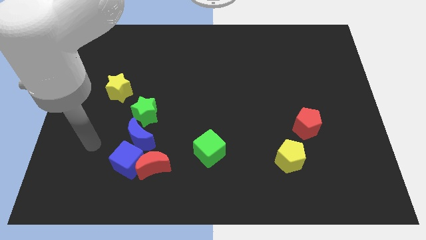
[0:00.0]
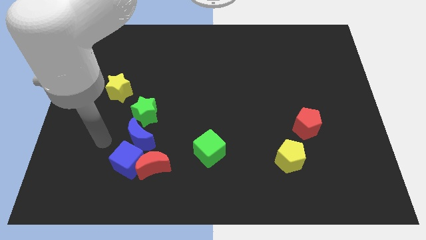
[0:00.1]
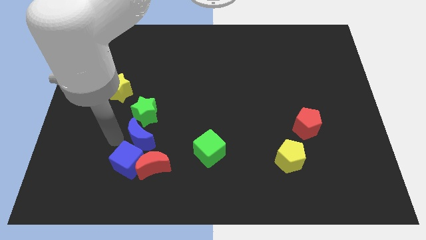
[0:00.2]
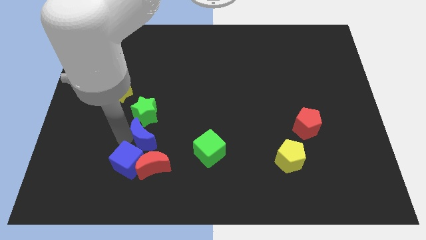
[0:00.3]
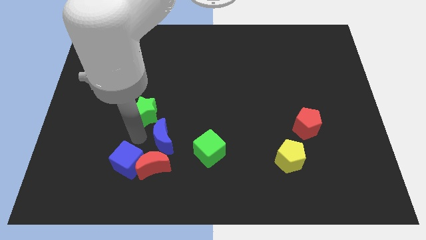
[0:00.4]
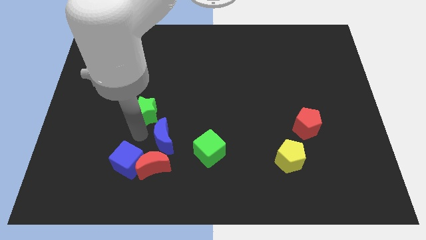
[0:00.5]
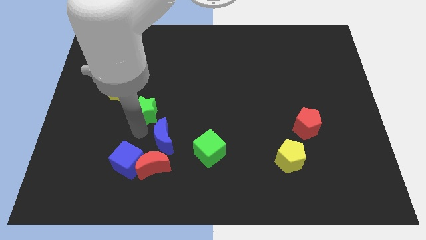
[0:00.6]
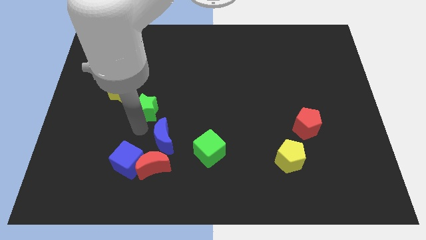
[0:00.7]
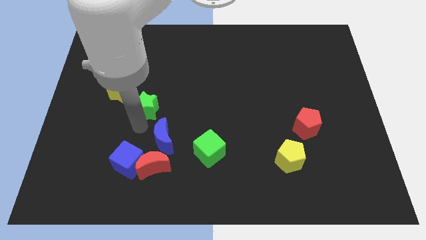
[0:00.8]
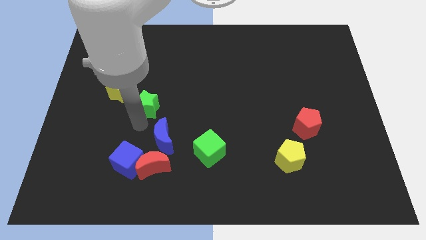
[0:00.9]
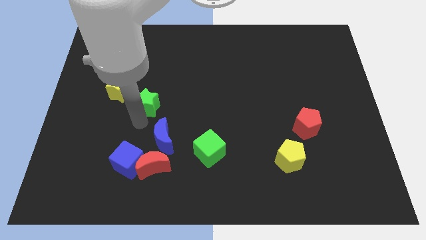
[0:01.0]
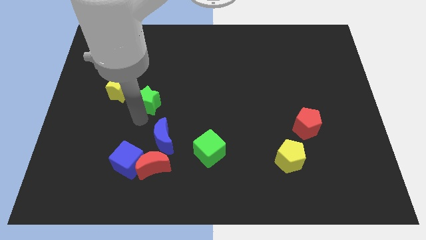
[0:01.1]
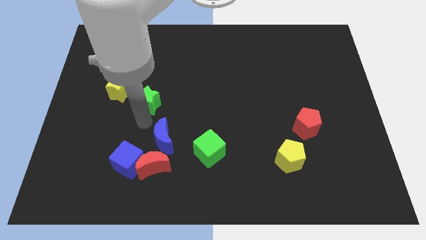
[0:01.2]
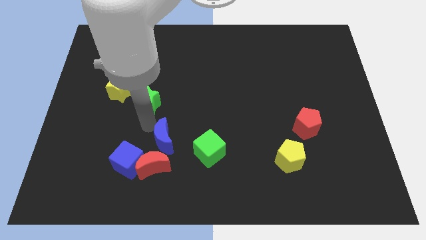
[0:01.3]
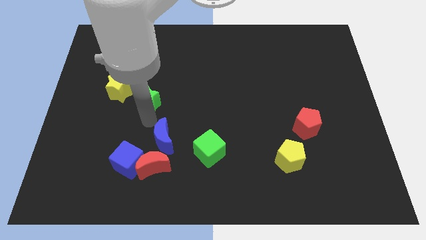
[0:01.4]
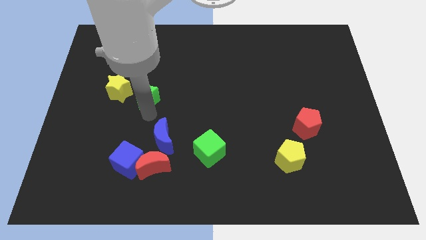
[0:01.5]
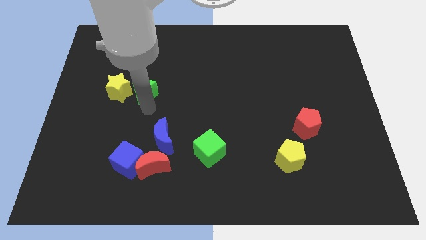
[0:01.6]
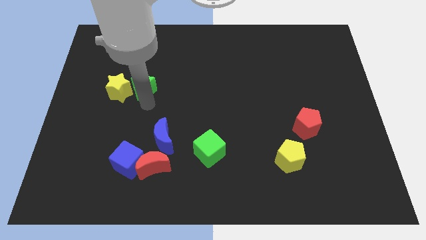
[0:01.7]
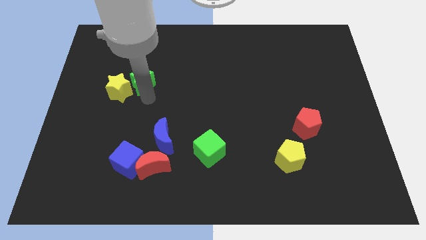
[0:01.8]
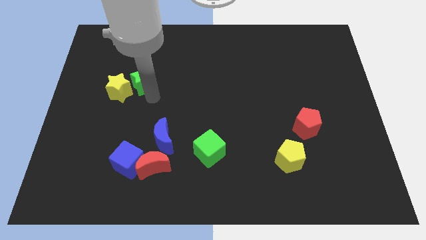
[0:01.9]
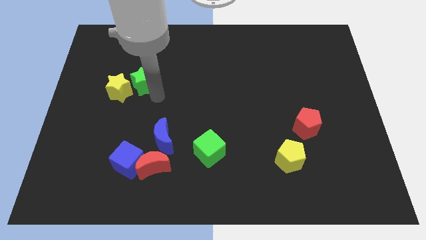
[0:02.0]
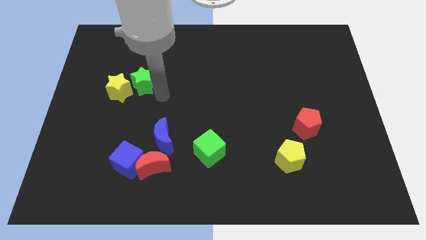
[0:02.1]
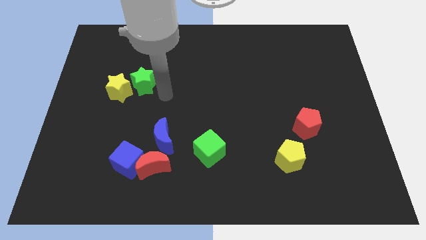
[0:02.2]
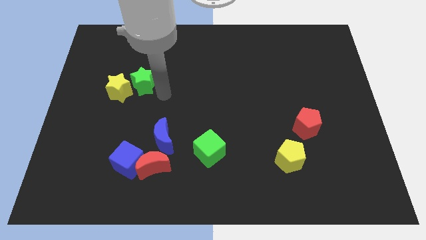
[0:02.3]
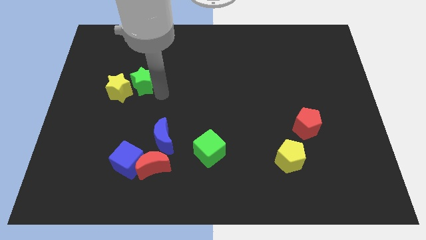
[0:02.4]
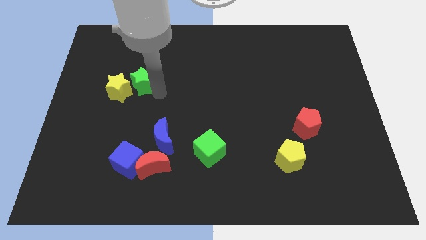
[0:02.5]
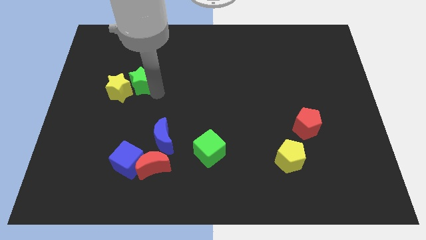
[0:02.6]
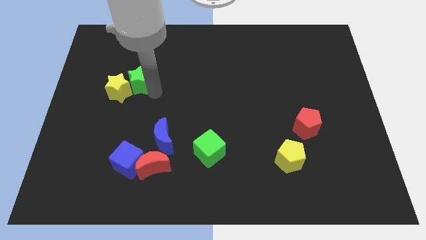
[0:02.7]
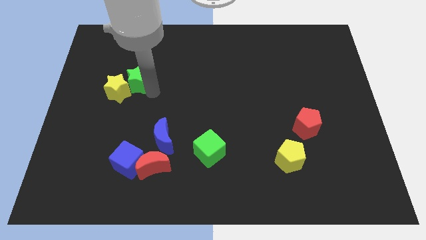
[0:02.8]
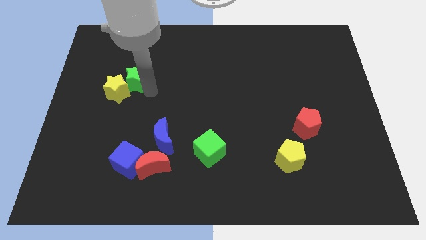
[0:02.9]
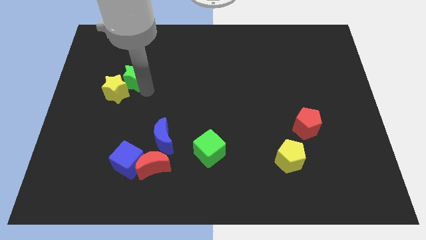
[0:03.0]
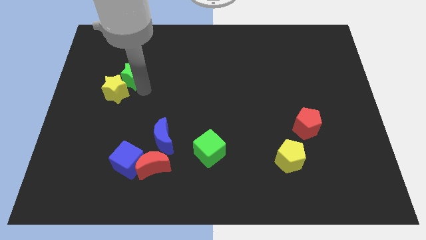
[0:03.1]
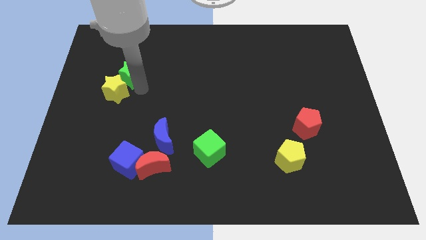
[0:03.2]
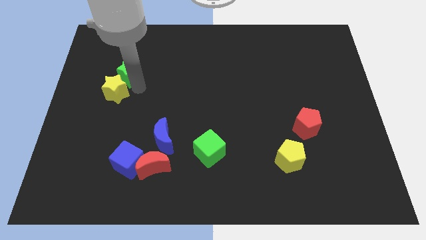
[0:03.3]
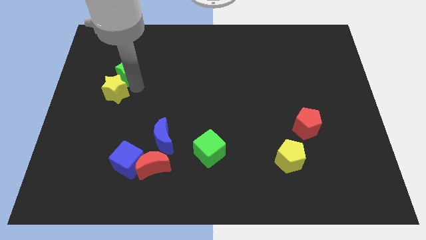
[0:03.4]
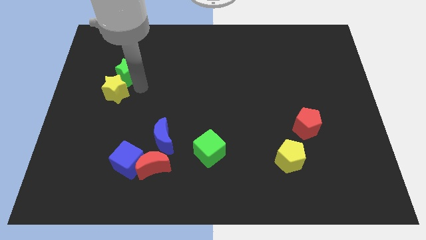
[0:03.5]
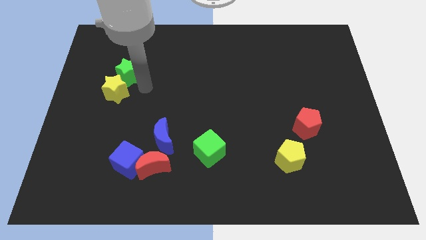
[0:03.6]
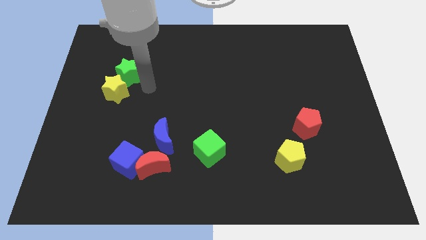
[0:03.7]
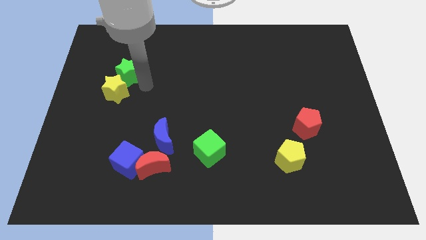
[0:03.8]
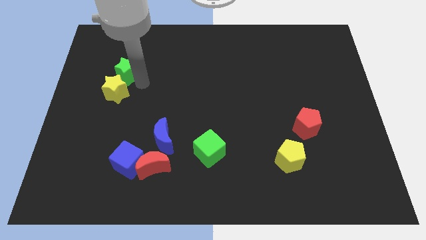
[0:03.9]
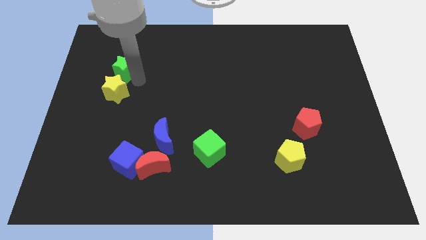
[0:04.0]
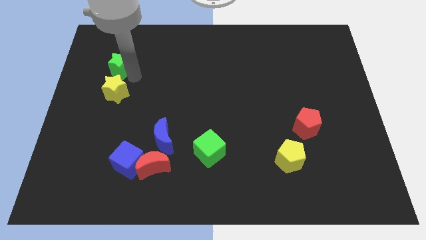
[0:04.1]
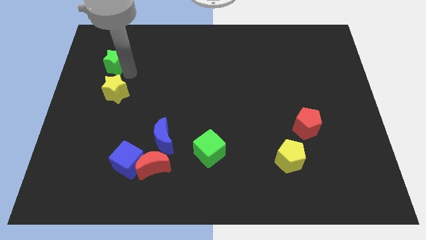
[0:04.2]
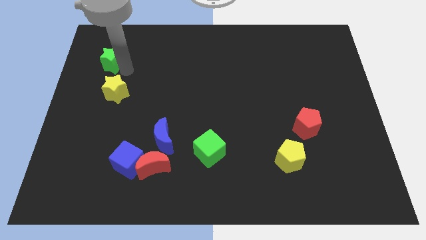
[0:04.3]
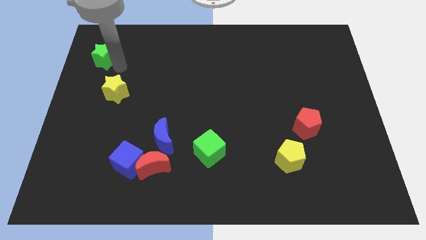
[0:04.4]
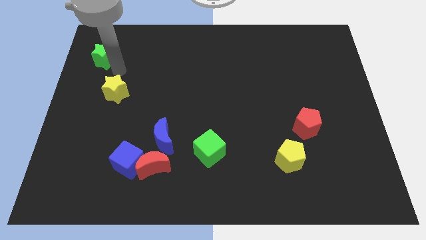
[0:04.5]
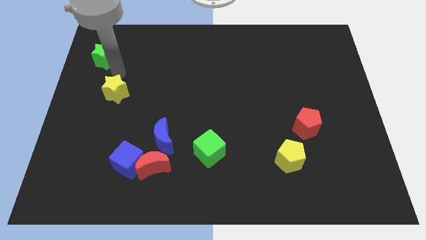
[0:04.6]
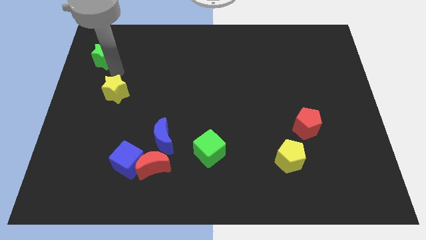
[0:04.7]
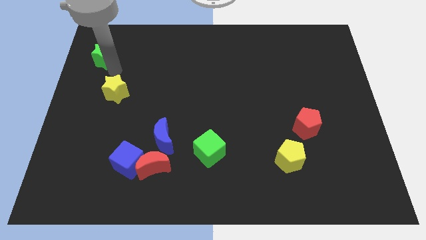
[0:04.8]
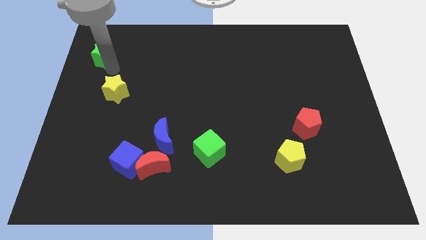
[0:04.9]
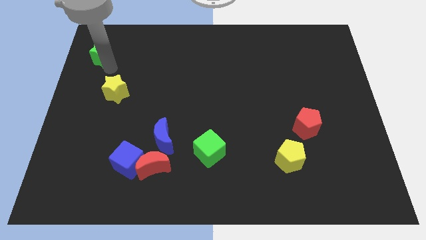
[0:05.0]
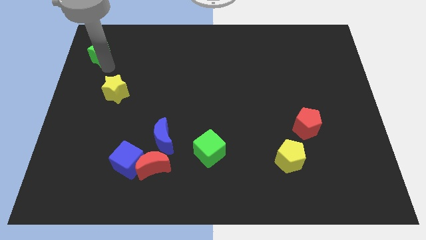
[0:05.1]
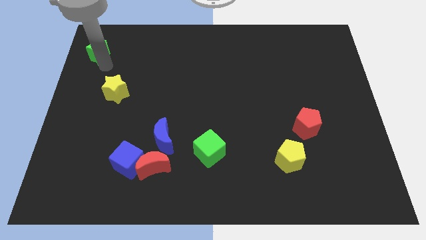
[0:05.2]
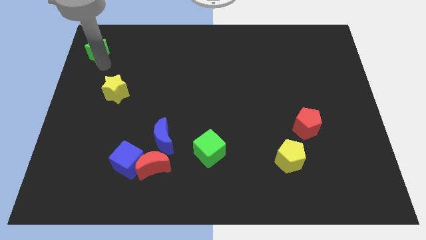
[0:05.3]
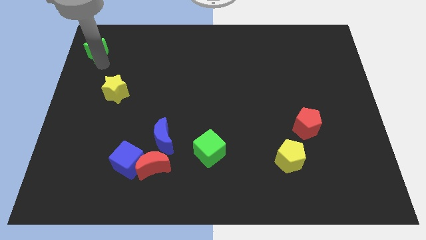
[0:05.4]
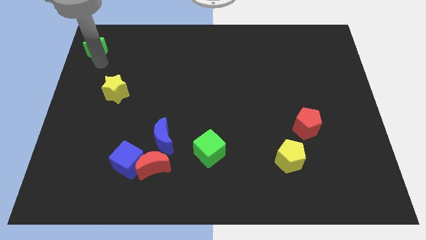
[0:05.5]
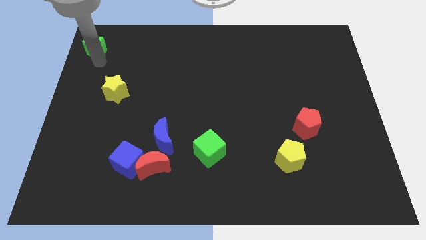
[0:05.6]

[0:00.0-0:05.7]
move the green star to the top left

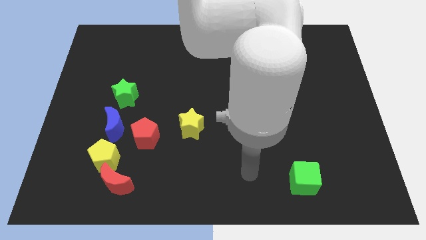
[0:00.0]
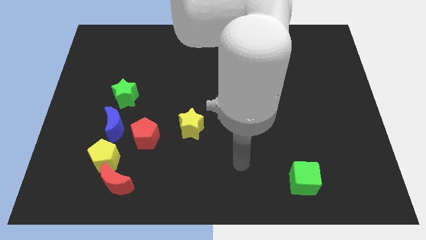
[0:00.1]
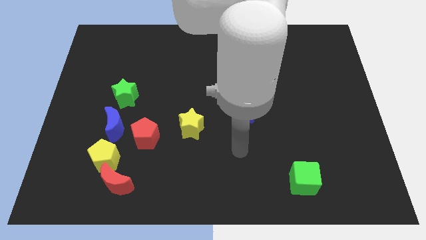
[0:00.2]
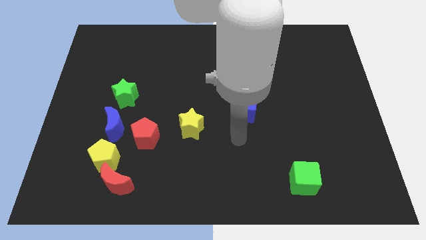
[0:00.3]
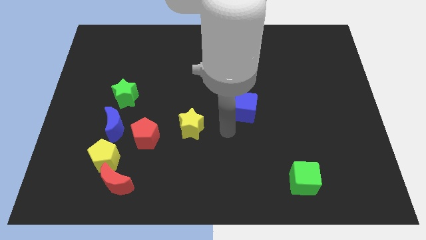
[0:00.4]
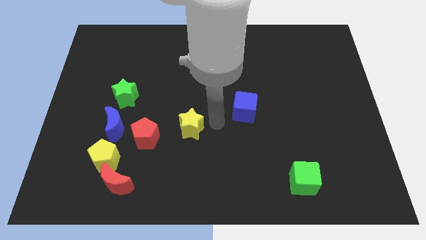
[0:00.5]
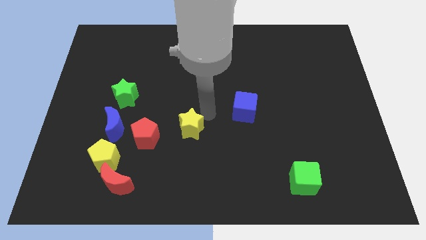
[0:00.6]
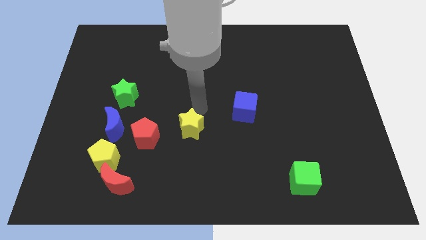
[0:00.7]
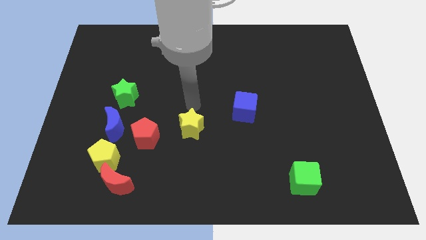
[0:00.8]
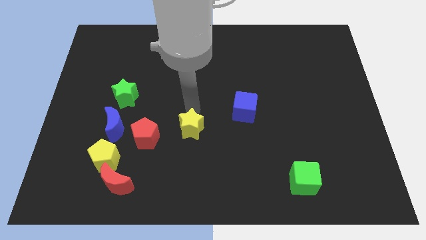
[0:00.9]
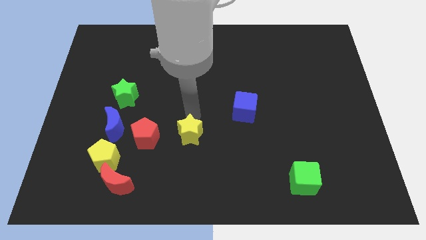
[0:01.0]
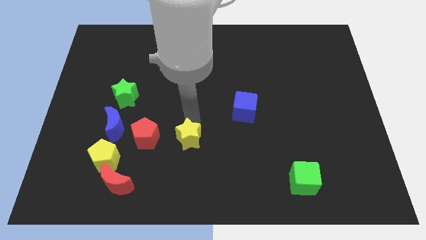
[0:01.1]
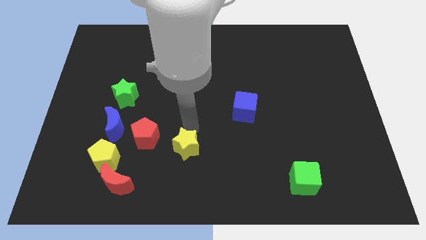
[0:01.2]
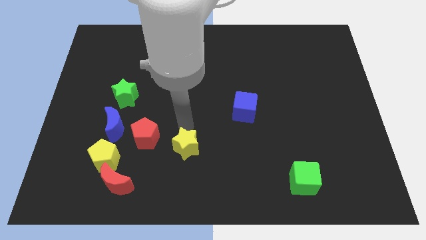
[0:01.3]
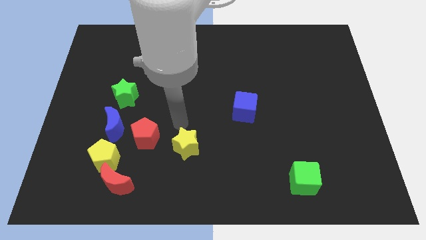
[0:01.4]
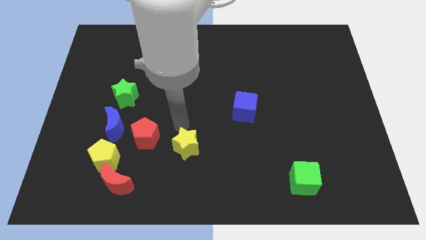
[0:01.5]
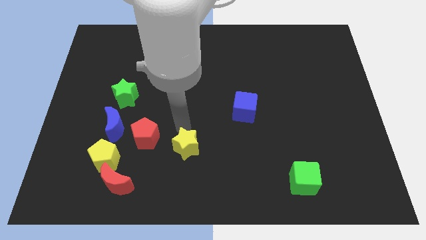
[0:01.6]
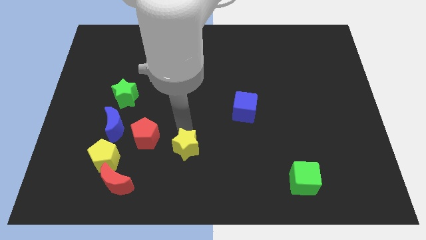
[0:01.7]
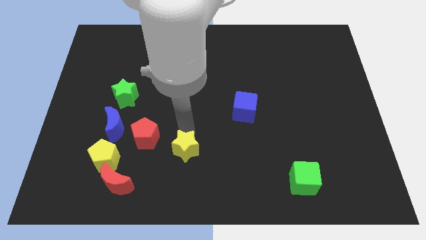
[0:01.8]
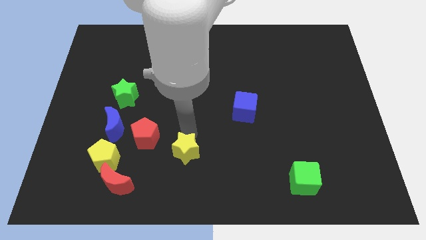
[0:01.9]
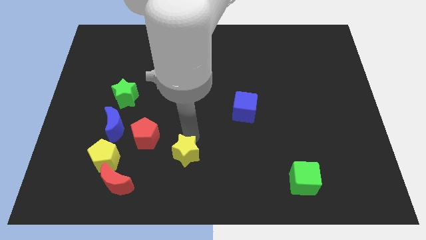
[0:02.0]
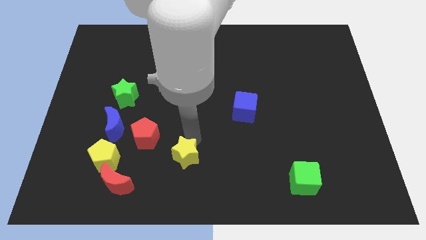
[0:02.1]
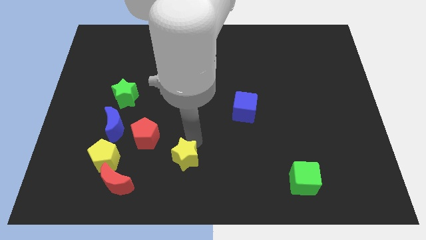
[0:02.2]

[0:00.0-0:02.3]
slide the yellow star to the bottom side
